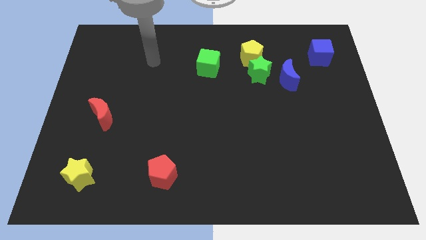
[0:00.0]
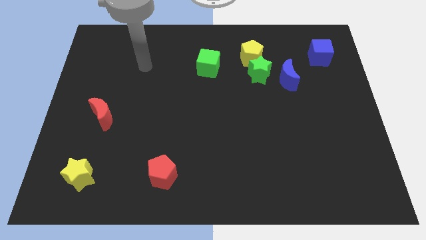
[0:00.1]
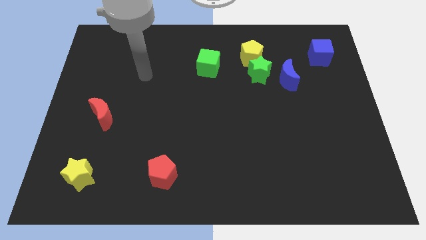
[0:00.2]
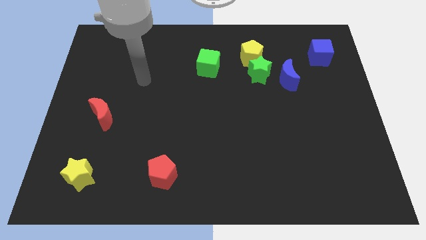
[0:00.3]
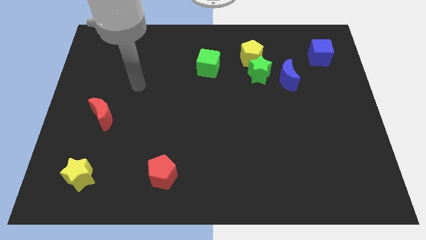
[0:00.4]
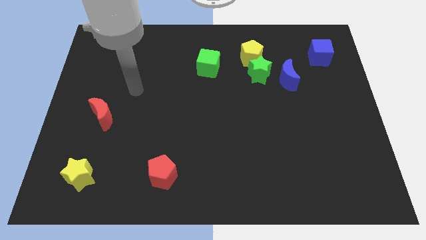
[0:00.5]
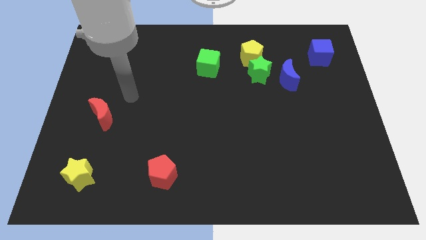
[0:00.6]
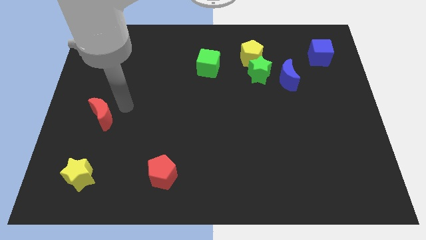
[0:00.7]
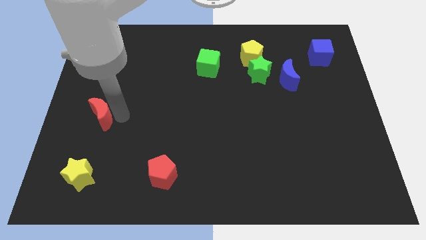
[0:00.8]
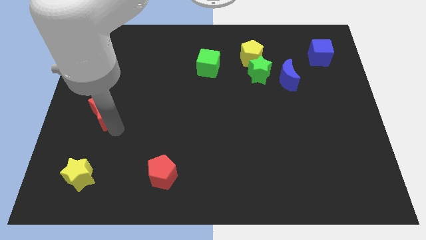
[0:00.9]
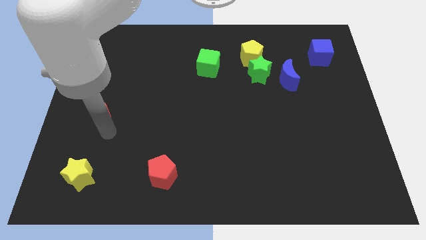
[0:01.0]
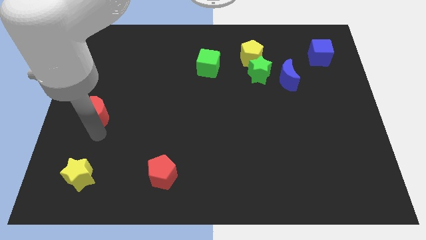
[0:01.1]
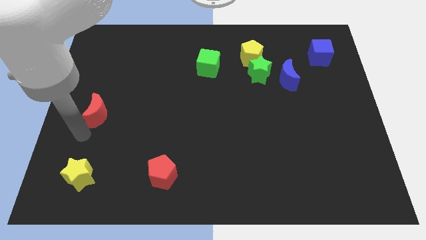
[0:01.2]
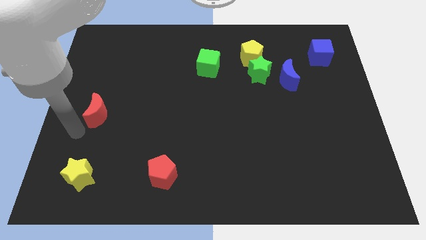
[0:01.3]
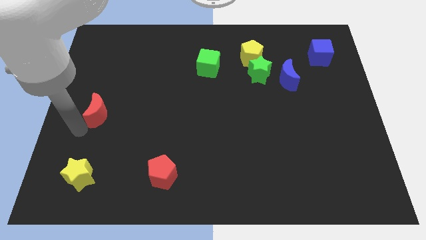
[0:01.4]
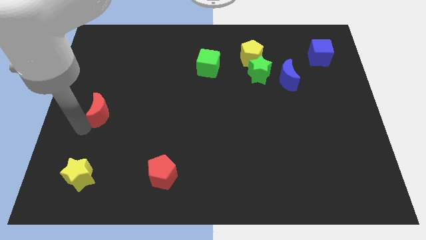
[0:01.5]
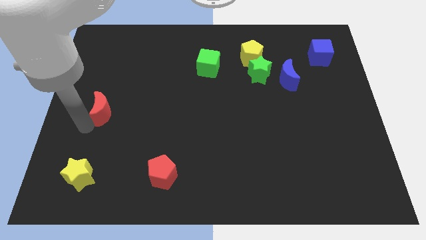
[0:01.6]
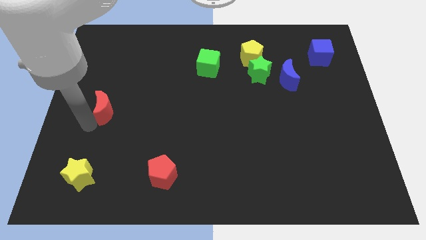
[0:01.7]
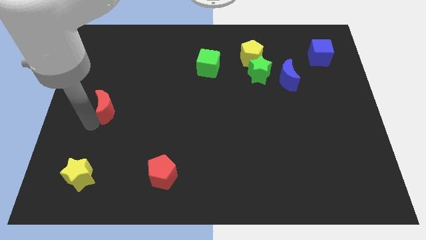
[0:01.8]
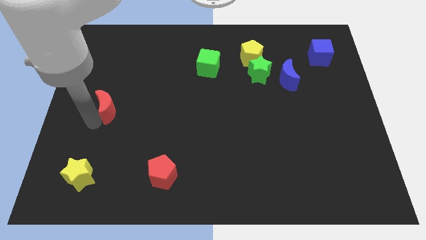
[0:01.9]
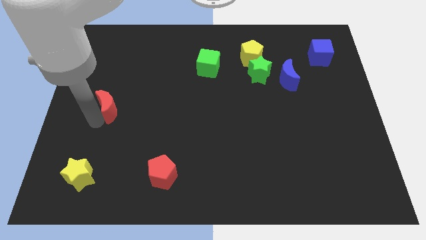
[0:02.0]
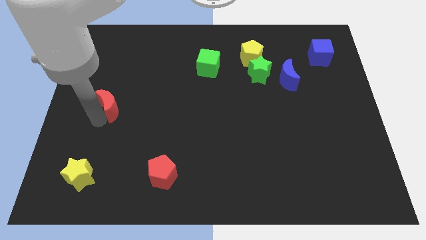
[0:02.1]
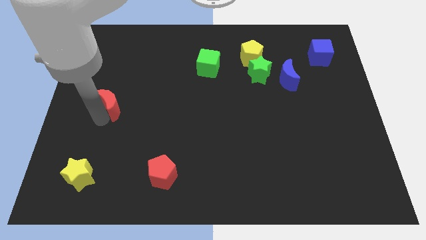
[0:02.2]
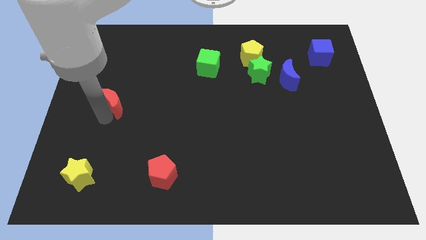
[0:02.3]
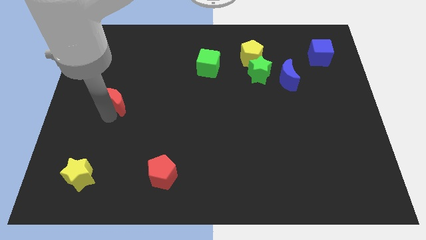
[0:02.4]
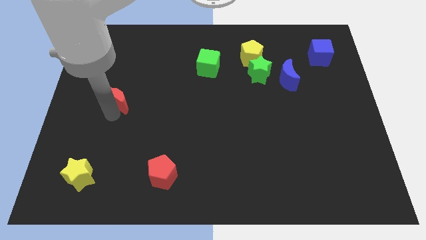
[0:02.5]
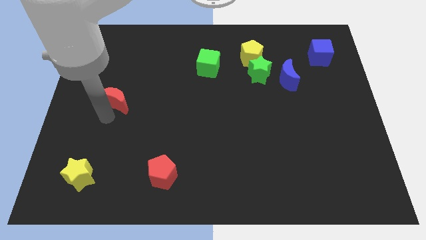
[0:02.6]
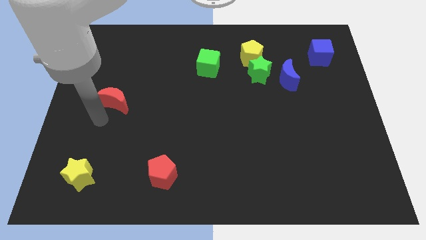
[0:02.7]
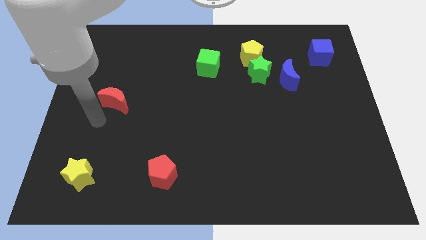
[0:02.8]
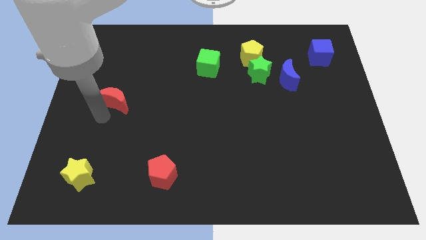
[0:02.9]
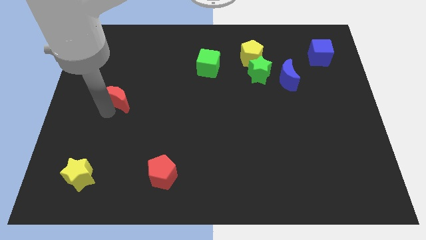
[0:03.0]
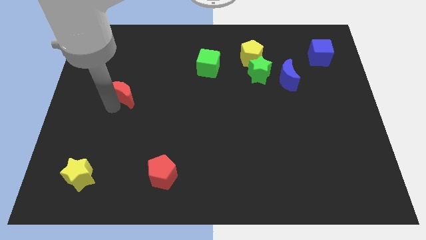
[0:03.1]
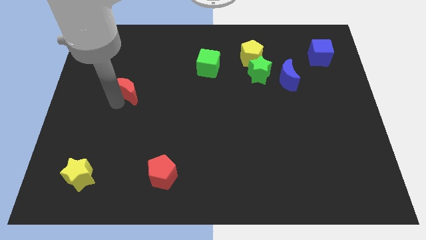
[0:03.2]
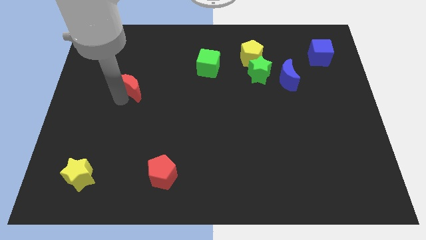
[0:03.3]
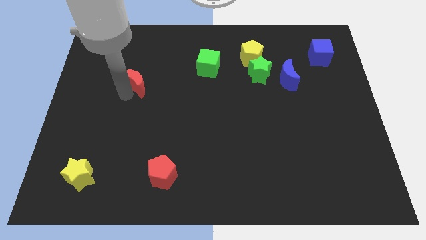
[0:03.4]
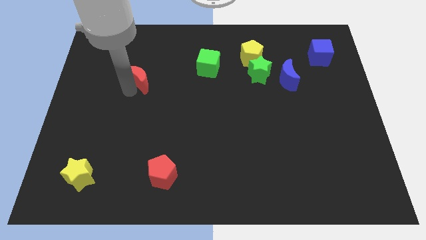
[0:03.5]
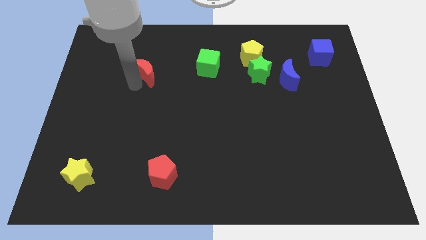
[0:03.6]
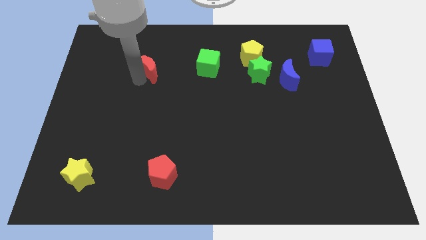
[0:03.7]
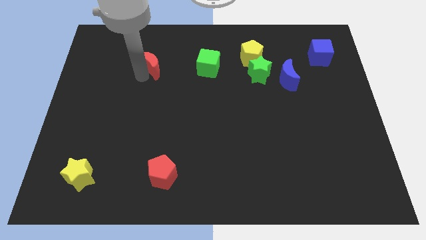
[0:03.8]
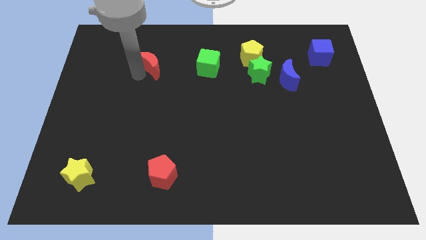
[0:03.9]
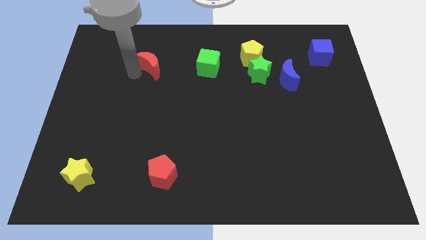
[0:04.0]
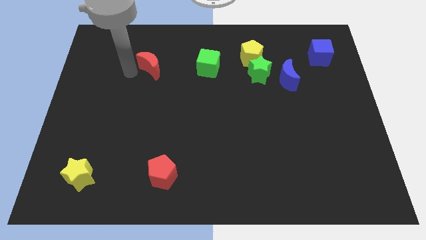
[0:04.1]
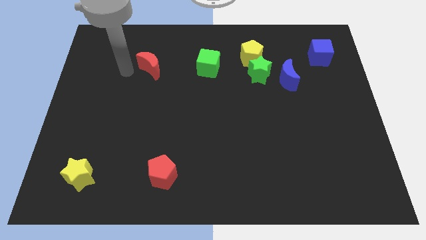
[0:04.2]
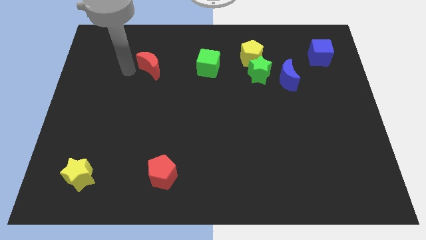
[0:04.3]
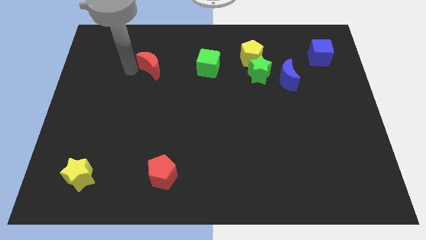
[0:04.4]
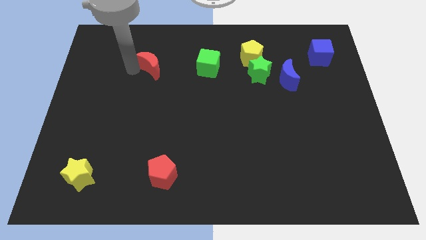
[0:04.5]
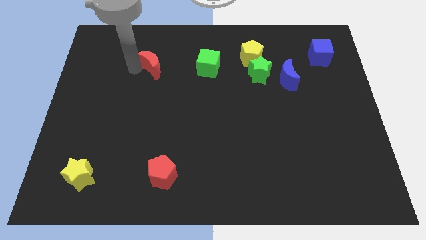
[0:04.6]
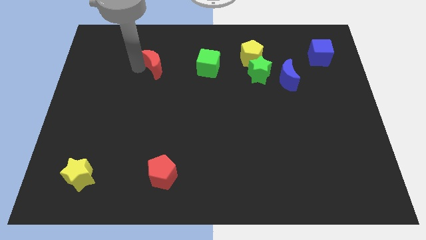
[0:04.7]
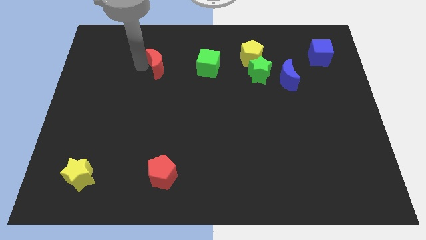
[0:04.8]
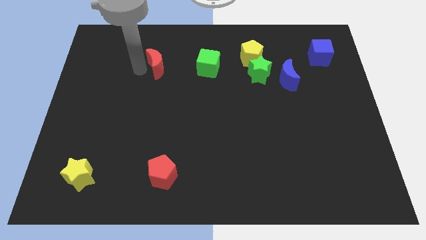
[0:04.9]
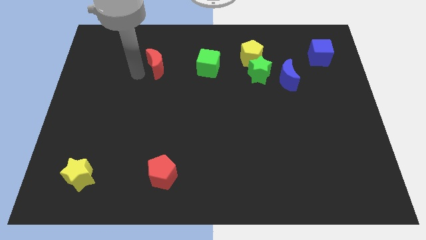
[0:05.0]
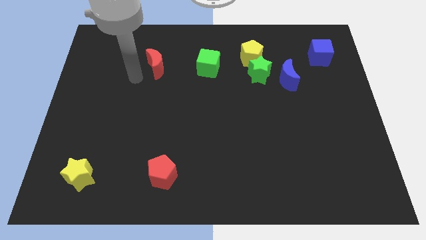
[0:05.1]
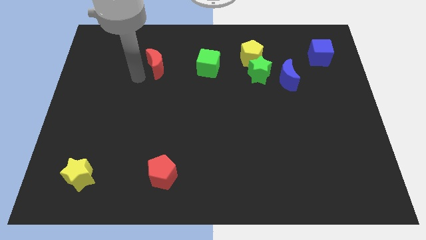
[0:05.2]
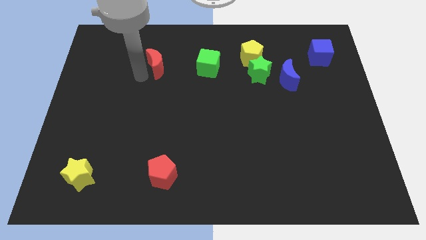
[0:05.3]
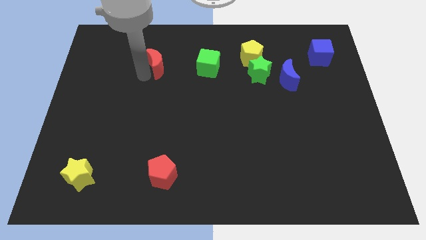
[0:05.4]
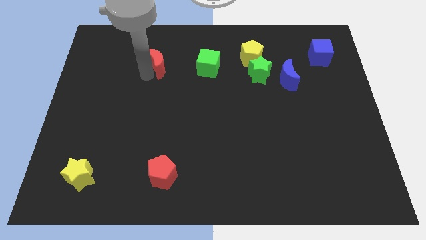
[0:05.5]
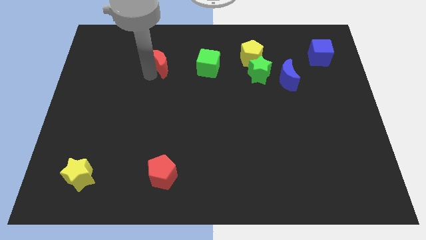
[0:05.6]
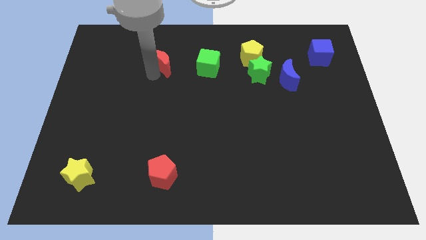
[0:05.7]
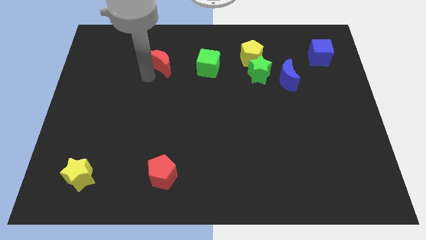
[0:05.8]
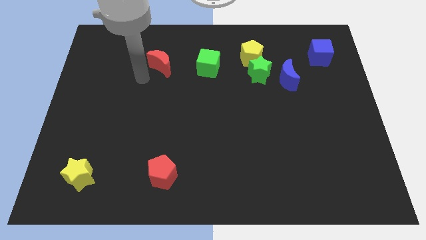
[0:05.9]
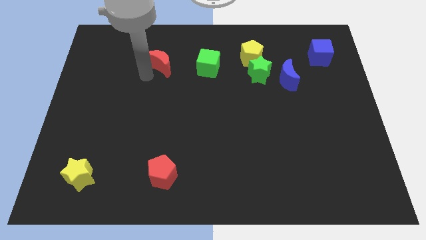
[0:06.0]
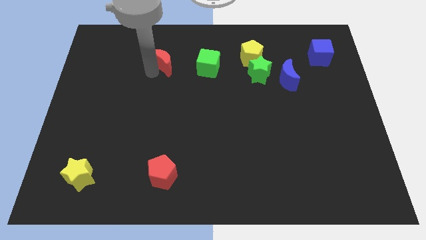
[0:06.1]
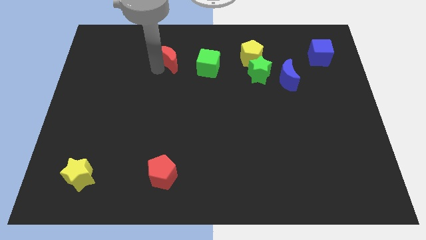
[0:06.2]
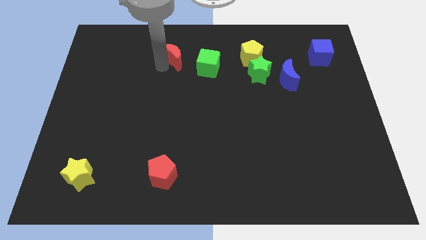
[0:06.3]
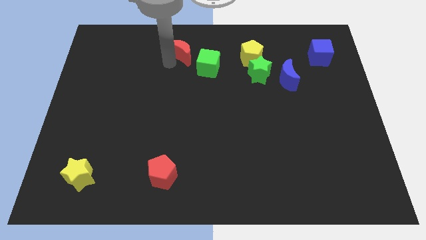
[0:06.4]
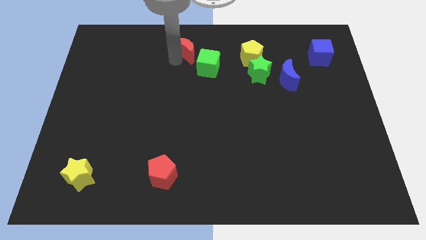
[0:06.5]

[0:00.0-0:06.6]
move the red moon to the towards your base

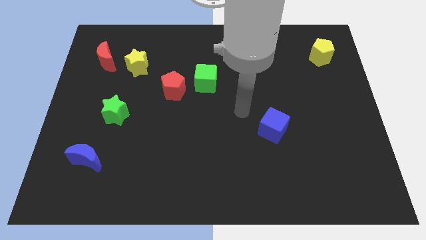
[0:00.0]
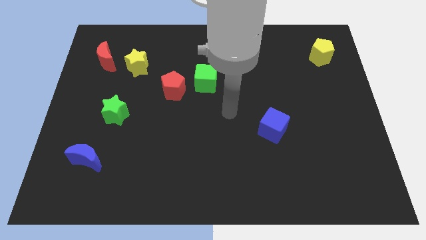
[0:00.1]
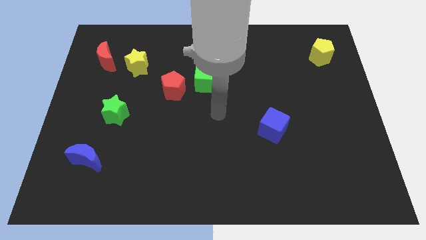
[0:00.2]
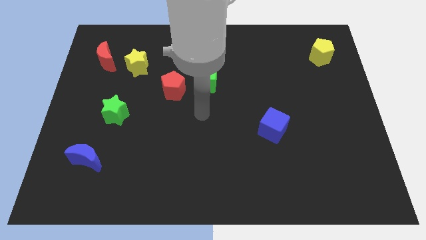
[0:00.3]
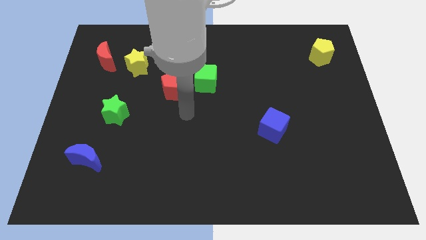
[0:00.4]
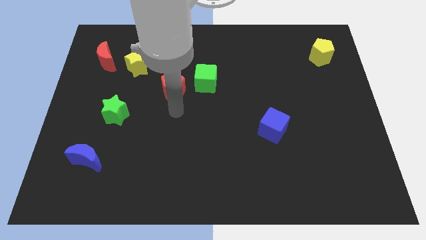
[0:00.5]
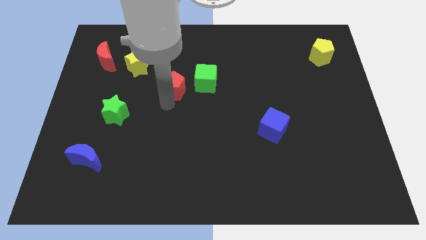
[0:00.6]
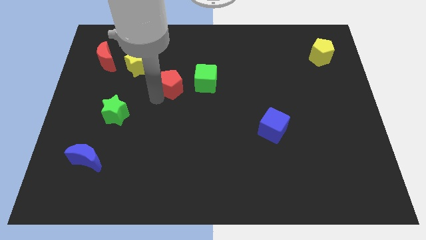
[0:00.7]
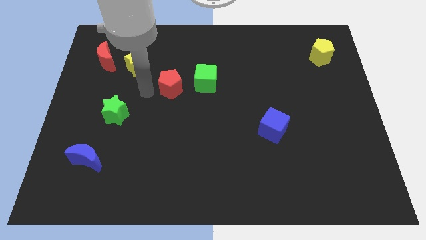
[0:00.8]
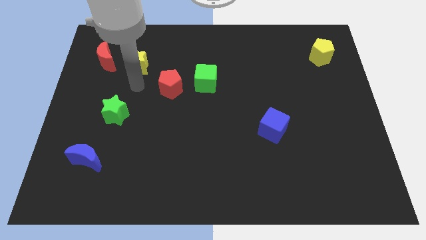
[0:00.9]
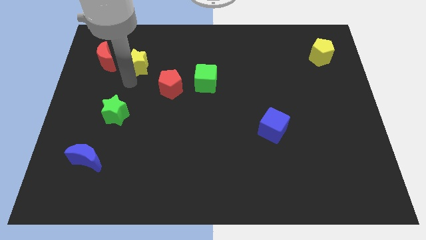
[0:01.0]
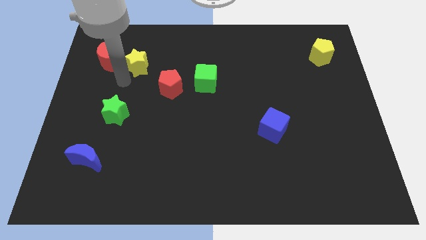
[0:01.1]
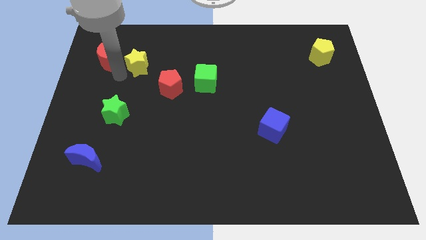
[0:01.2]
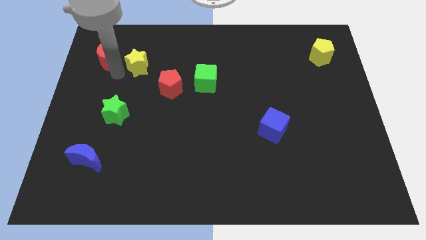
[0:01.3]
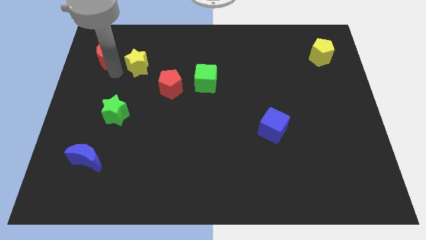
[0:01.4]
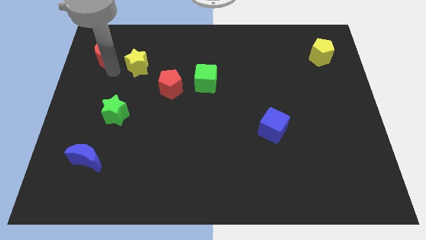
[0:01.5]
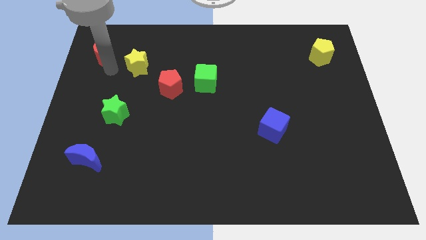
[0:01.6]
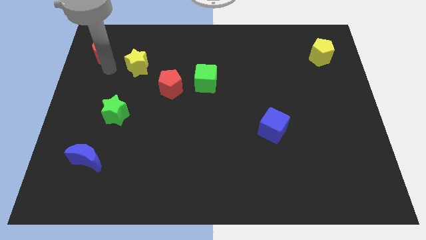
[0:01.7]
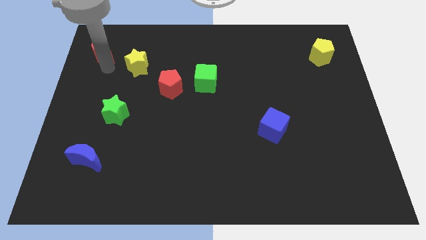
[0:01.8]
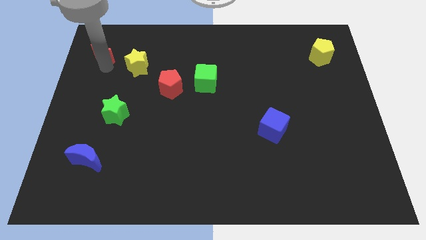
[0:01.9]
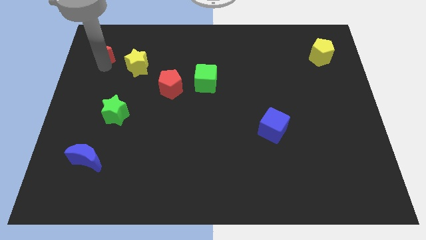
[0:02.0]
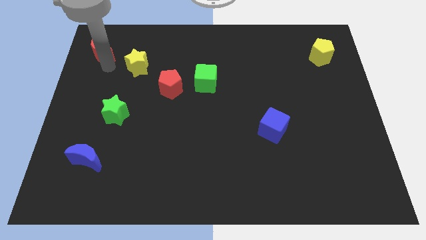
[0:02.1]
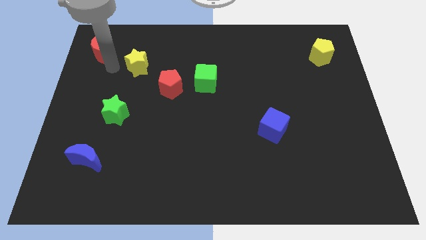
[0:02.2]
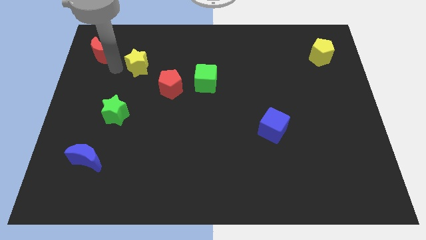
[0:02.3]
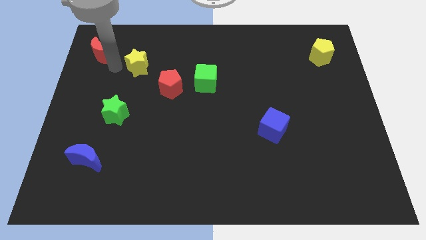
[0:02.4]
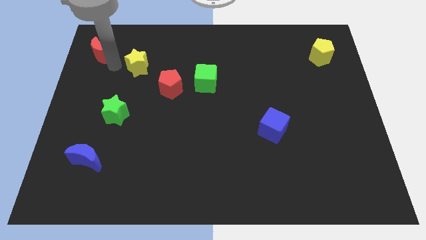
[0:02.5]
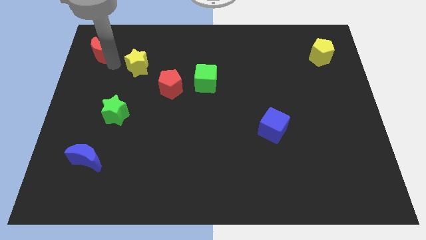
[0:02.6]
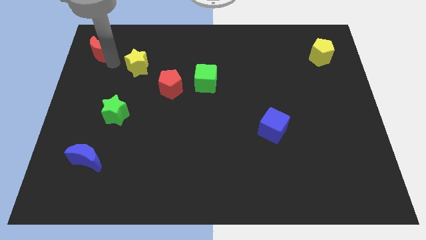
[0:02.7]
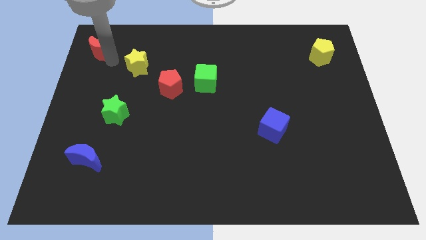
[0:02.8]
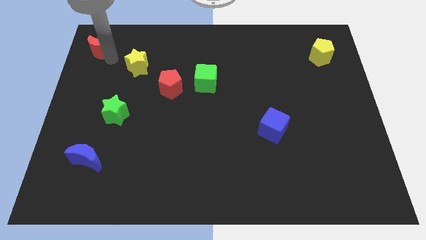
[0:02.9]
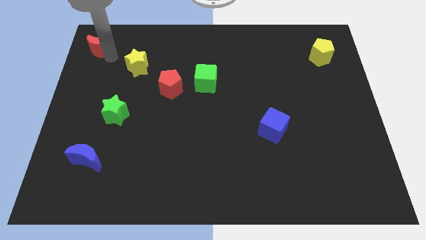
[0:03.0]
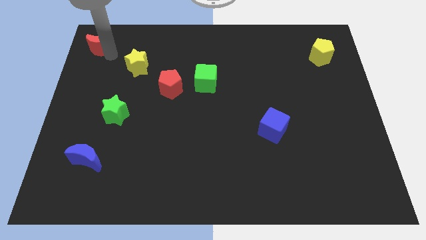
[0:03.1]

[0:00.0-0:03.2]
move the red moon to the top left of the board
